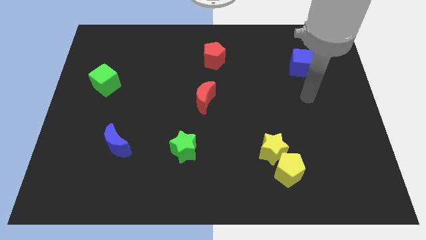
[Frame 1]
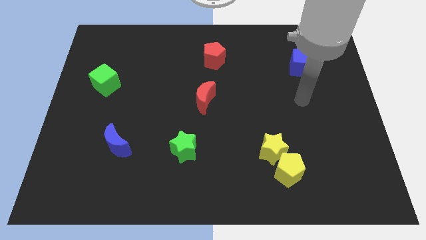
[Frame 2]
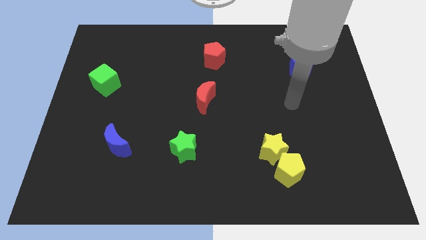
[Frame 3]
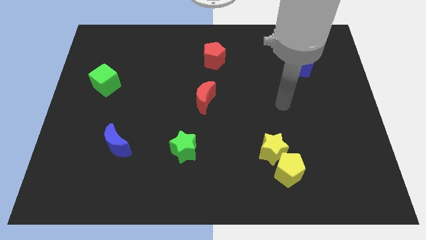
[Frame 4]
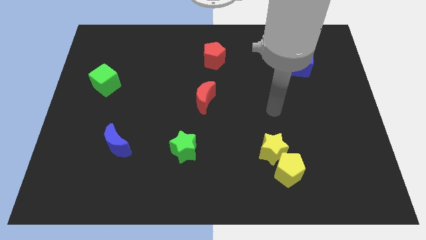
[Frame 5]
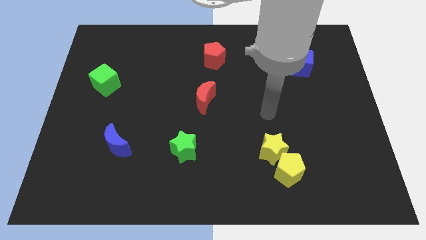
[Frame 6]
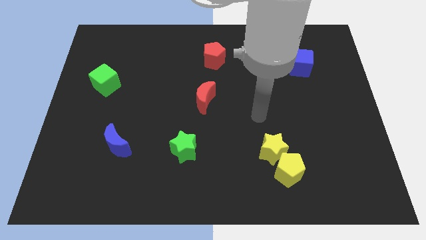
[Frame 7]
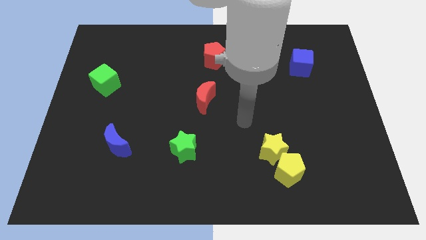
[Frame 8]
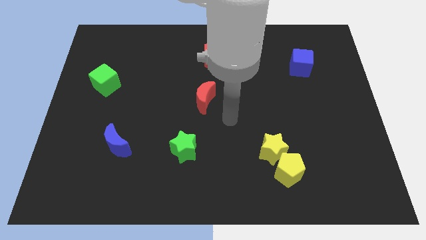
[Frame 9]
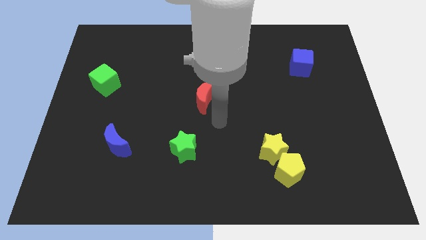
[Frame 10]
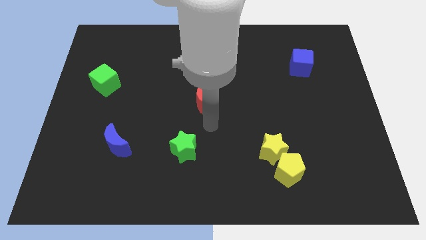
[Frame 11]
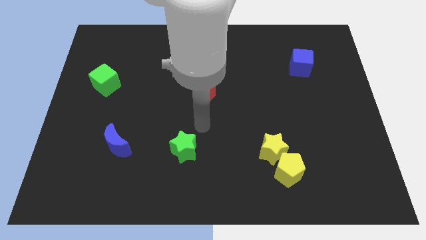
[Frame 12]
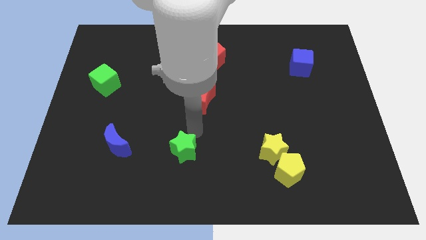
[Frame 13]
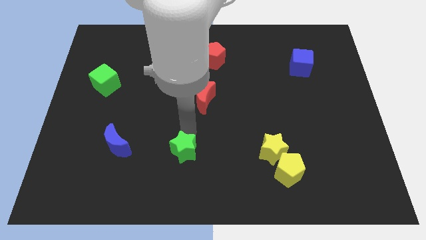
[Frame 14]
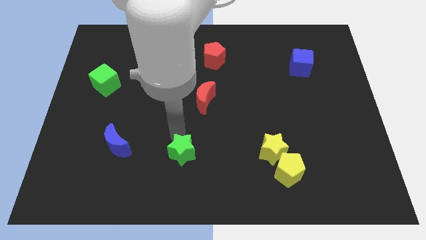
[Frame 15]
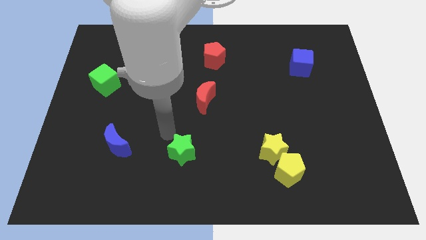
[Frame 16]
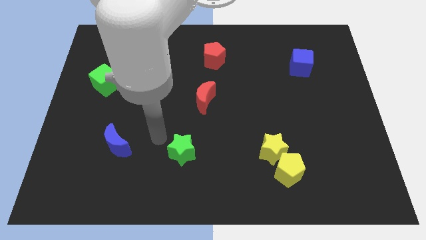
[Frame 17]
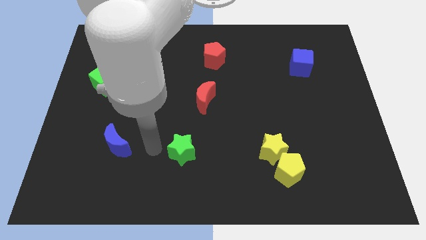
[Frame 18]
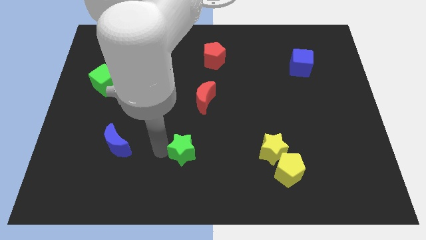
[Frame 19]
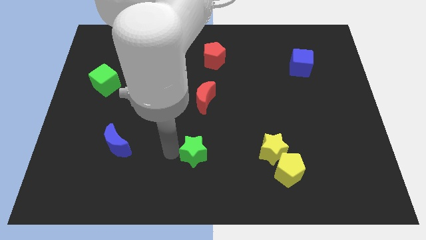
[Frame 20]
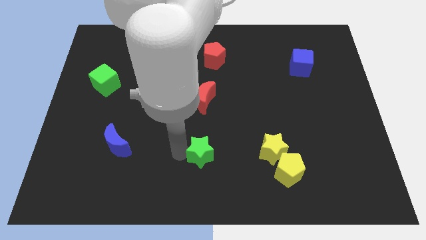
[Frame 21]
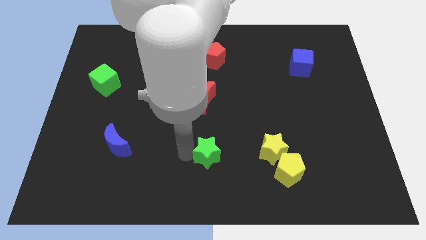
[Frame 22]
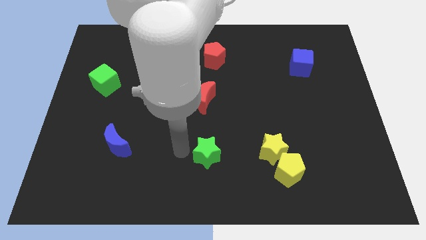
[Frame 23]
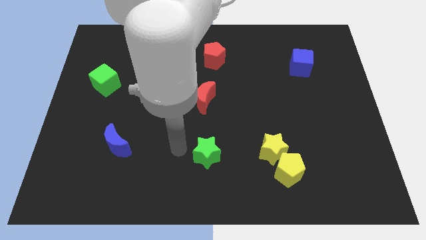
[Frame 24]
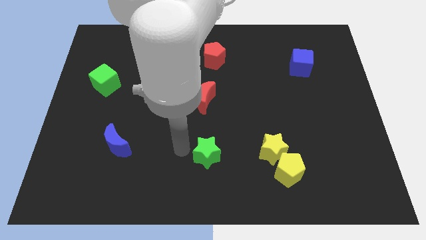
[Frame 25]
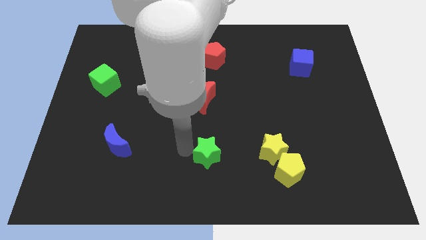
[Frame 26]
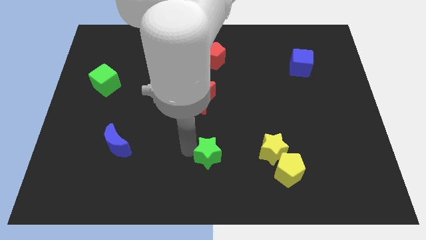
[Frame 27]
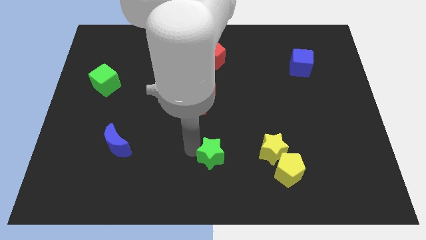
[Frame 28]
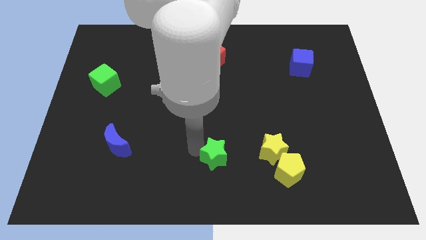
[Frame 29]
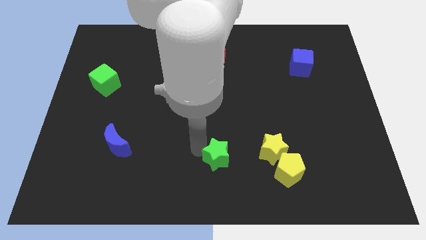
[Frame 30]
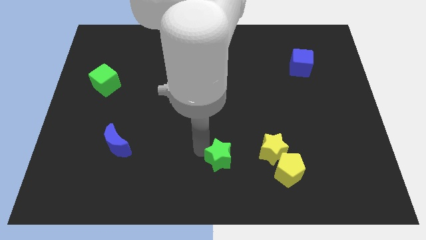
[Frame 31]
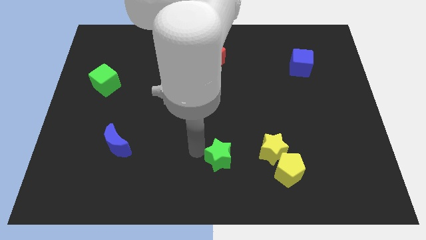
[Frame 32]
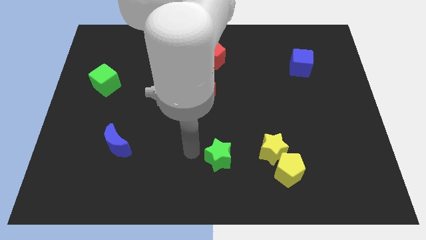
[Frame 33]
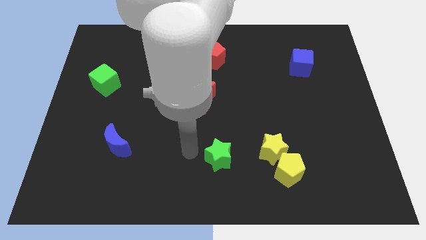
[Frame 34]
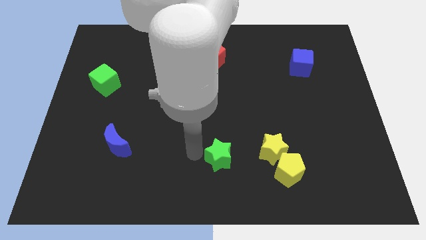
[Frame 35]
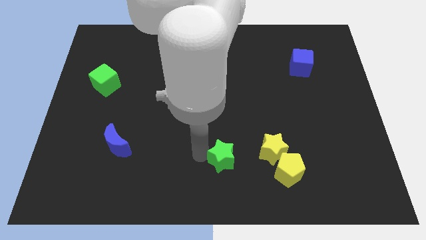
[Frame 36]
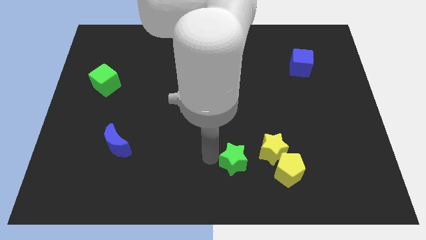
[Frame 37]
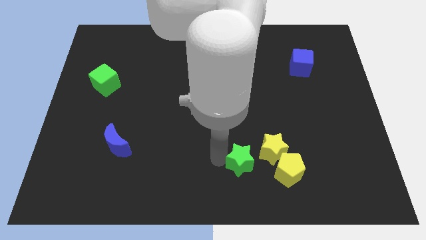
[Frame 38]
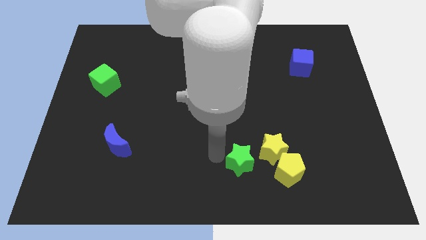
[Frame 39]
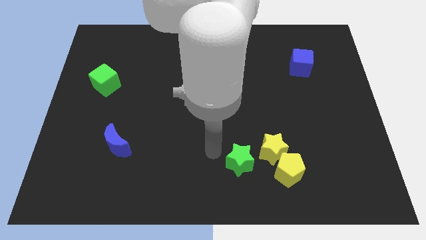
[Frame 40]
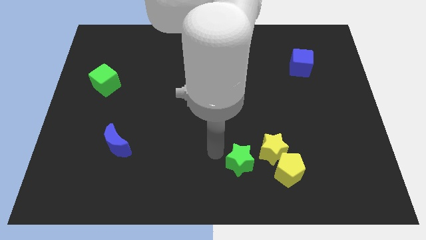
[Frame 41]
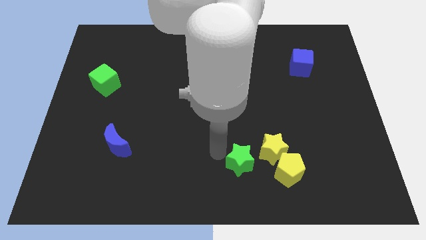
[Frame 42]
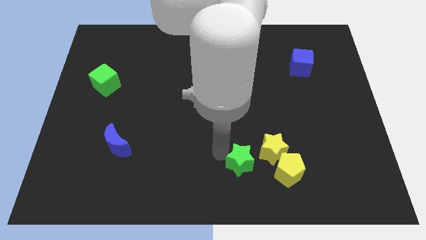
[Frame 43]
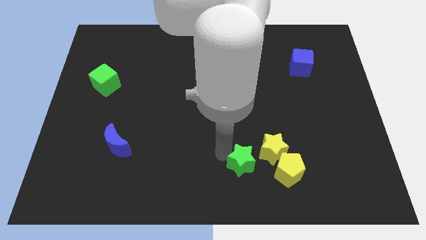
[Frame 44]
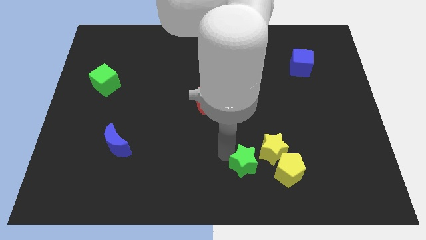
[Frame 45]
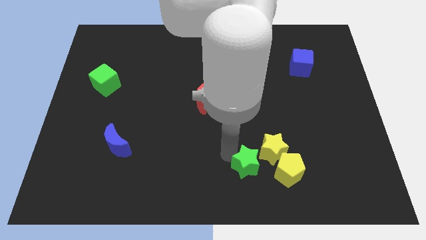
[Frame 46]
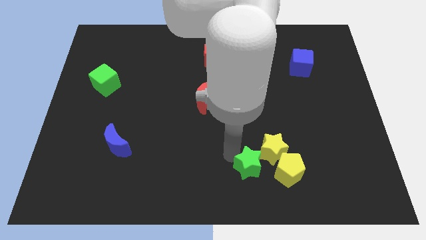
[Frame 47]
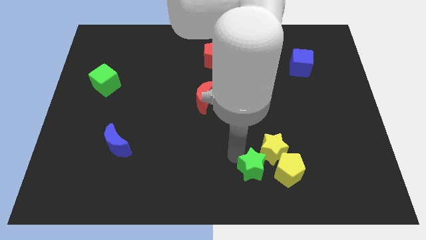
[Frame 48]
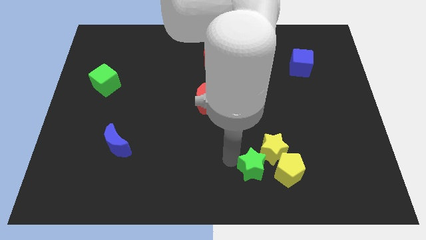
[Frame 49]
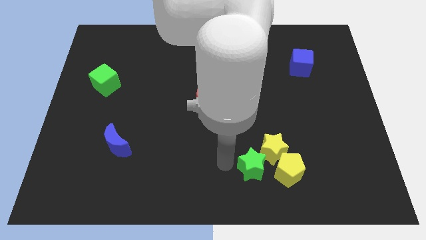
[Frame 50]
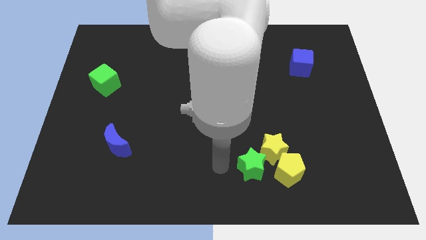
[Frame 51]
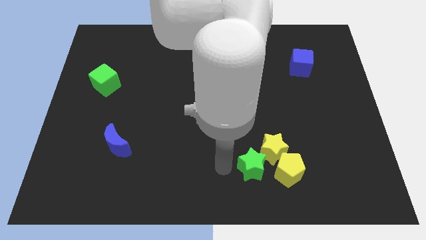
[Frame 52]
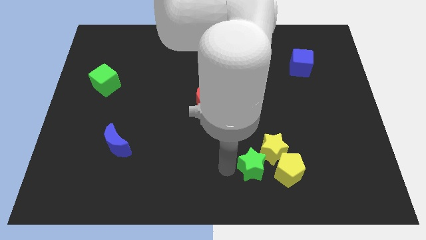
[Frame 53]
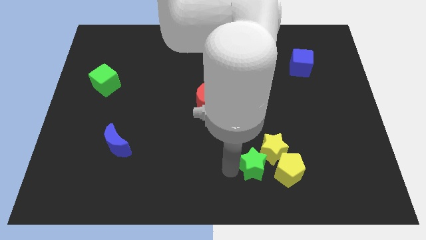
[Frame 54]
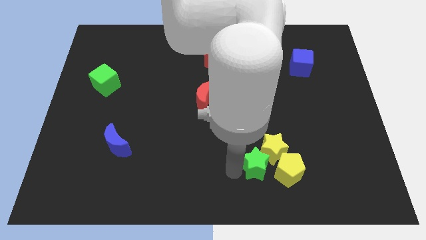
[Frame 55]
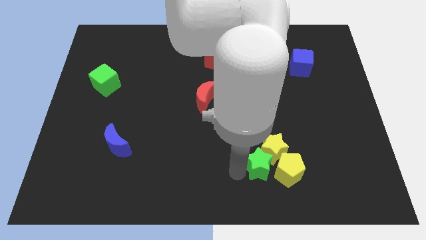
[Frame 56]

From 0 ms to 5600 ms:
move the green star next to the yellow pentagon

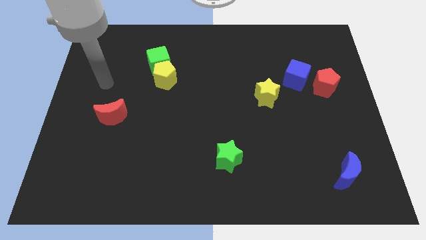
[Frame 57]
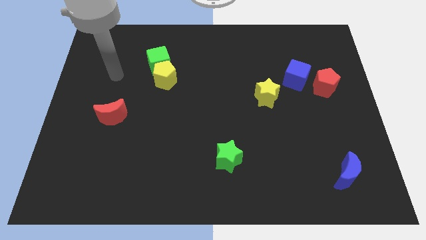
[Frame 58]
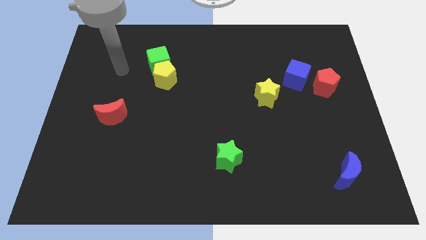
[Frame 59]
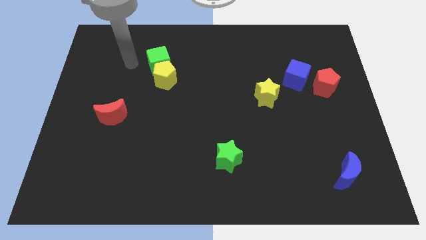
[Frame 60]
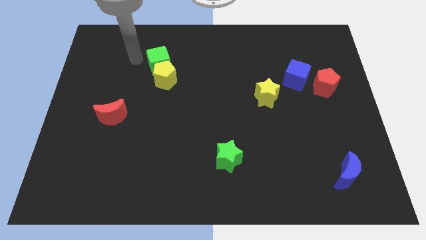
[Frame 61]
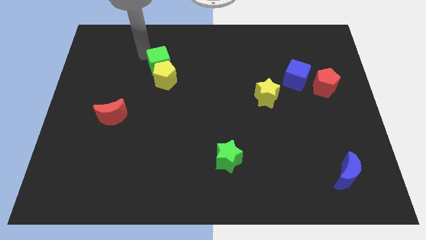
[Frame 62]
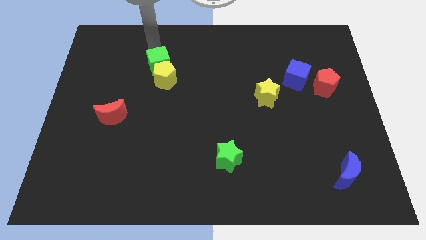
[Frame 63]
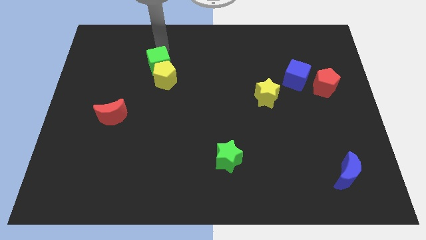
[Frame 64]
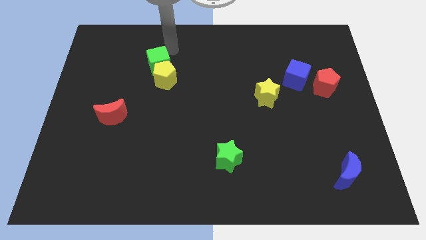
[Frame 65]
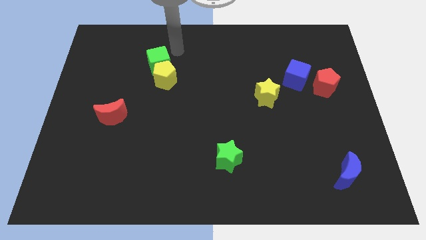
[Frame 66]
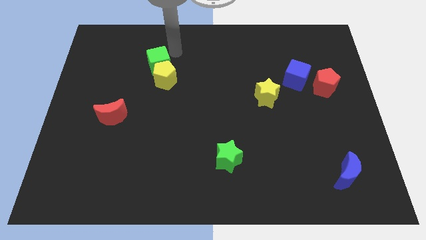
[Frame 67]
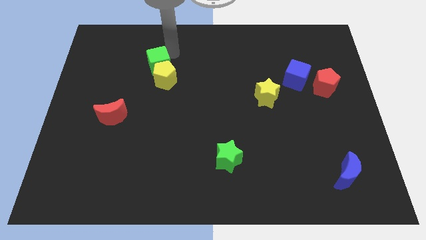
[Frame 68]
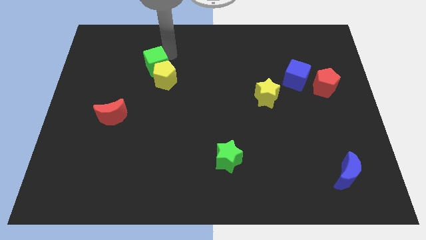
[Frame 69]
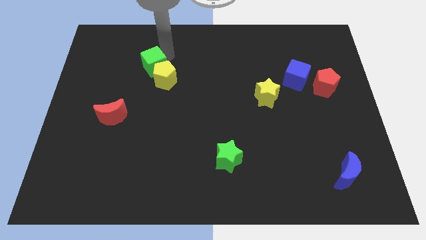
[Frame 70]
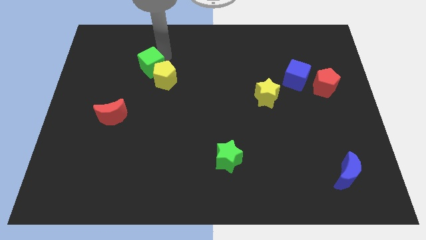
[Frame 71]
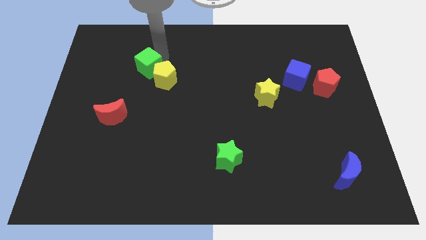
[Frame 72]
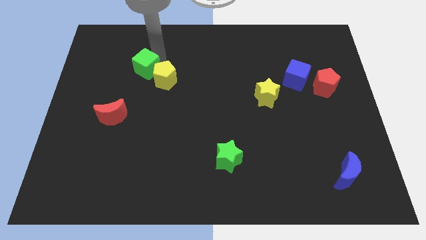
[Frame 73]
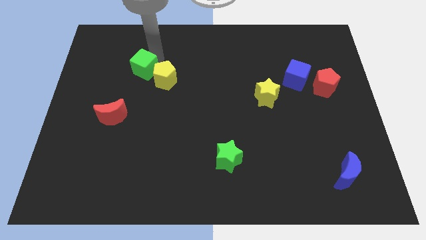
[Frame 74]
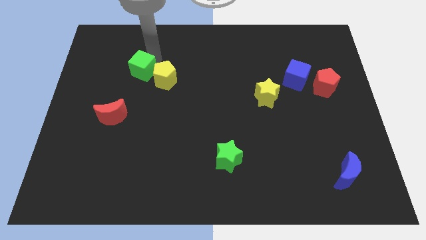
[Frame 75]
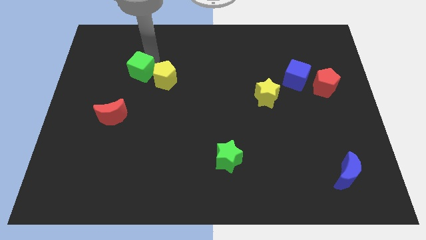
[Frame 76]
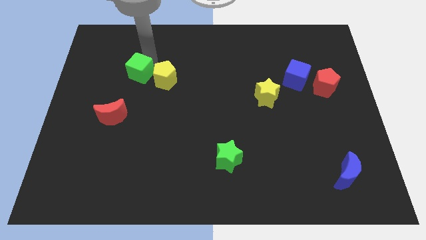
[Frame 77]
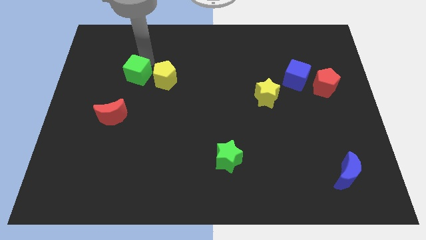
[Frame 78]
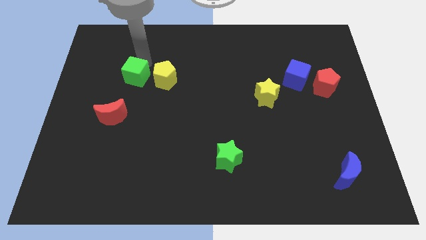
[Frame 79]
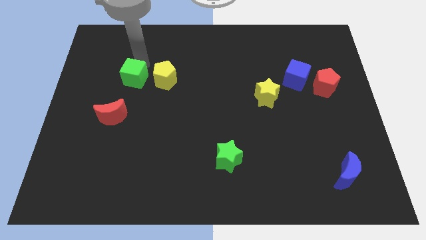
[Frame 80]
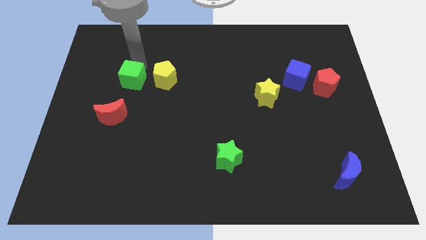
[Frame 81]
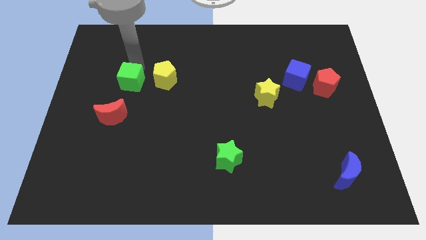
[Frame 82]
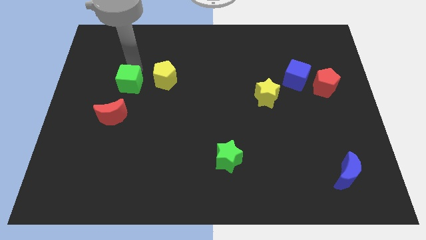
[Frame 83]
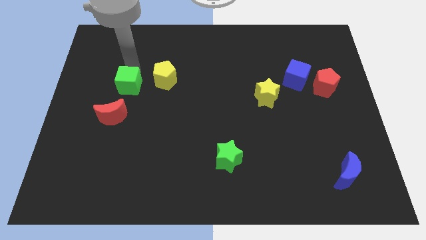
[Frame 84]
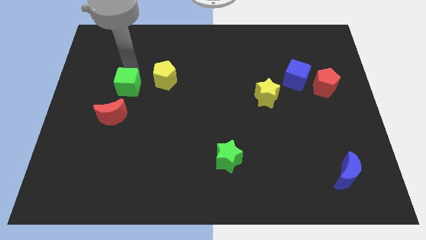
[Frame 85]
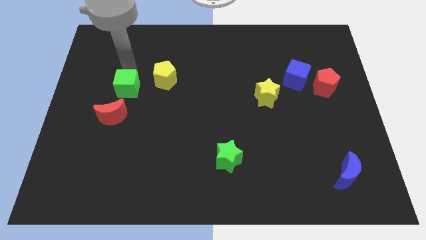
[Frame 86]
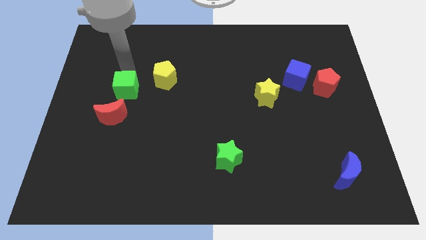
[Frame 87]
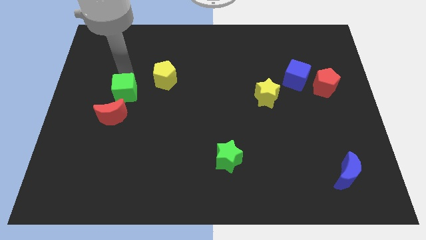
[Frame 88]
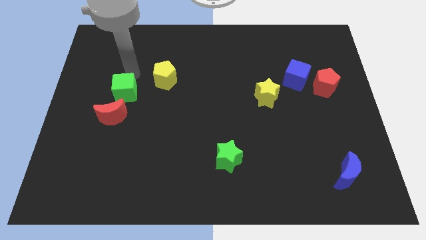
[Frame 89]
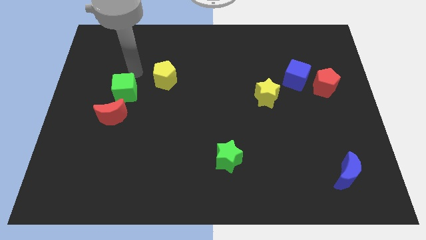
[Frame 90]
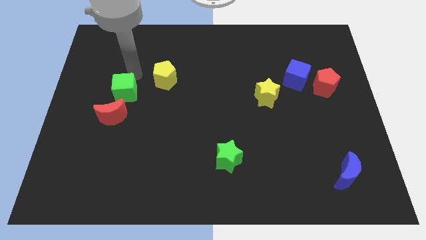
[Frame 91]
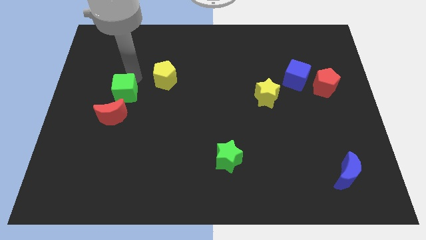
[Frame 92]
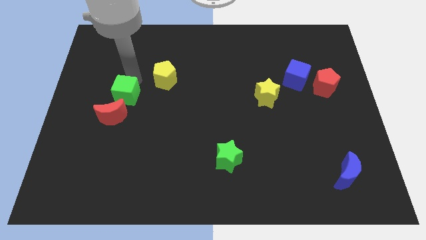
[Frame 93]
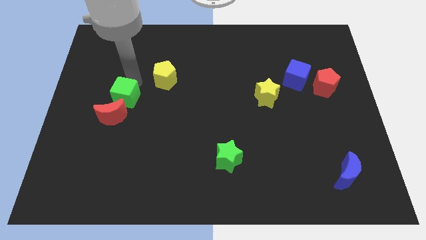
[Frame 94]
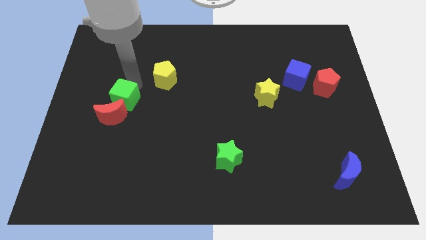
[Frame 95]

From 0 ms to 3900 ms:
put the green cube close to the red moon
